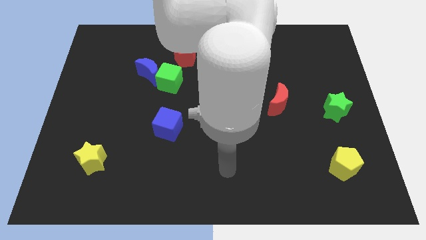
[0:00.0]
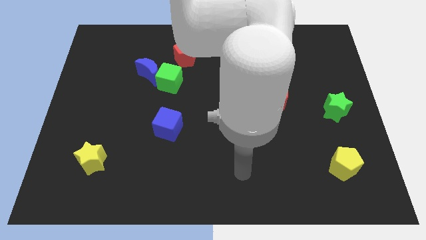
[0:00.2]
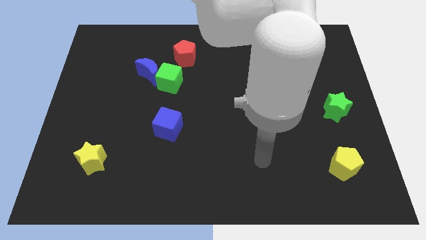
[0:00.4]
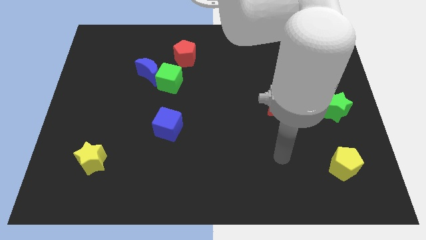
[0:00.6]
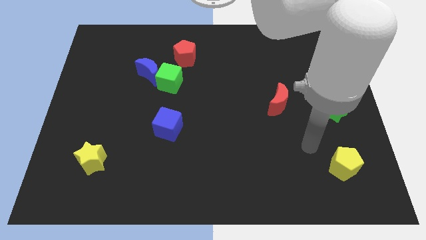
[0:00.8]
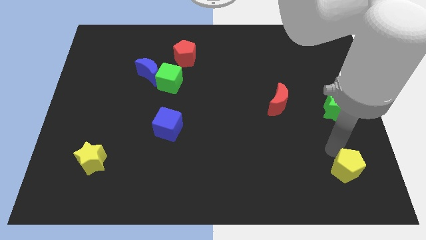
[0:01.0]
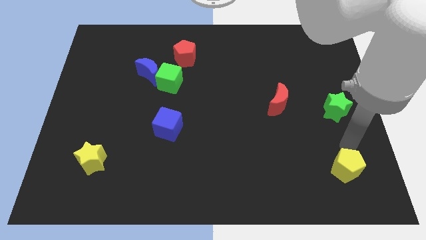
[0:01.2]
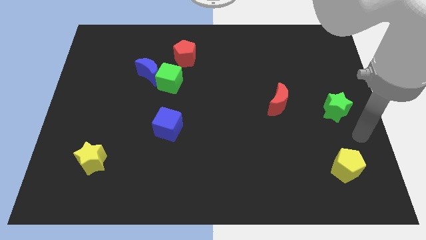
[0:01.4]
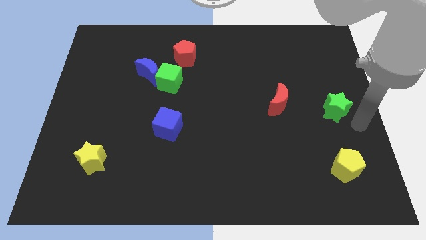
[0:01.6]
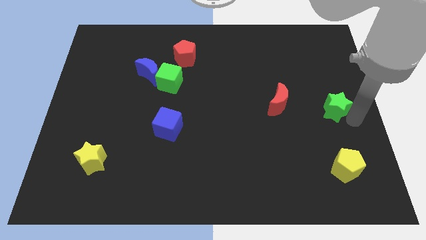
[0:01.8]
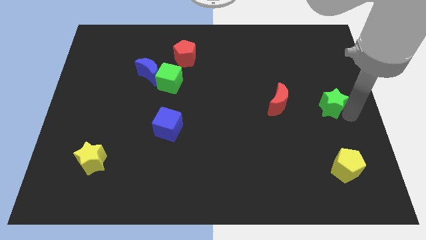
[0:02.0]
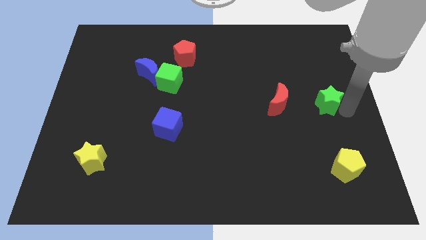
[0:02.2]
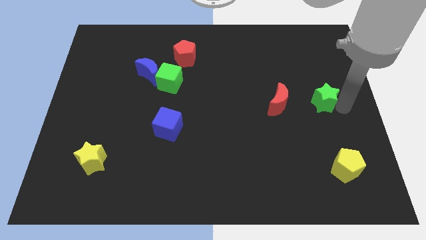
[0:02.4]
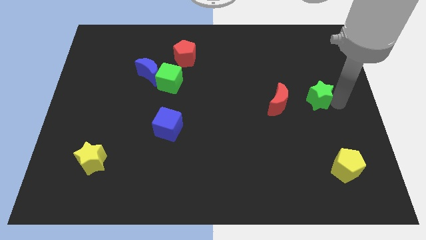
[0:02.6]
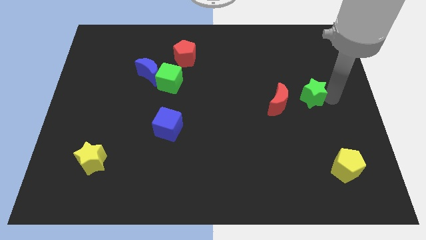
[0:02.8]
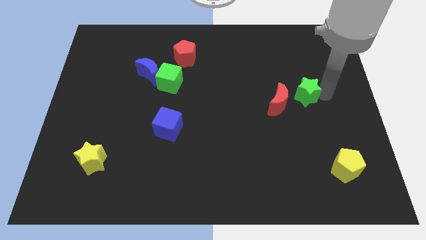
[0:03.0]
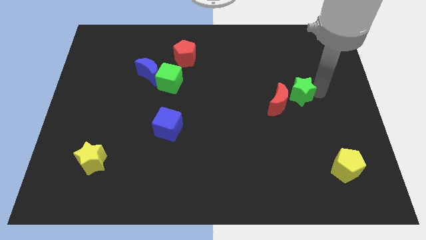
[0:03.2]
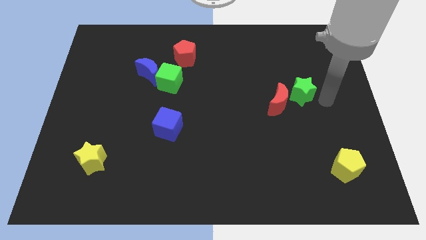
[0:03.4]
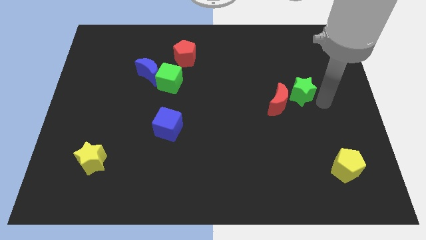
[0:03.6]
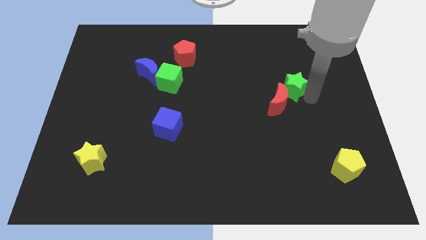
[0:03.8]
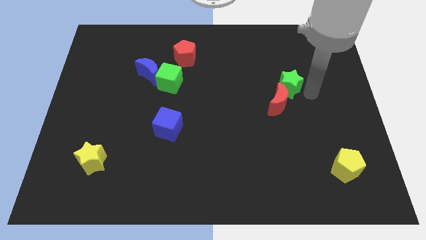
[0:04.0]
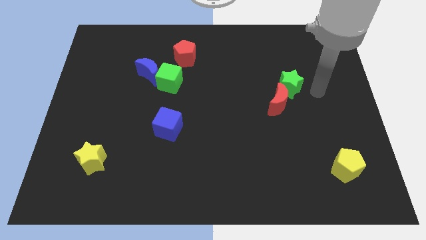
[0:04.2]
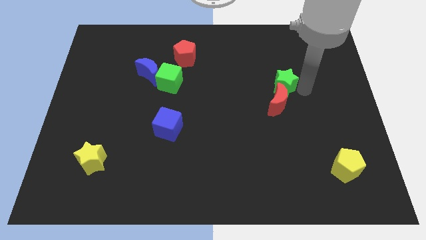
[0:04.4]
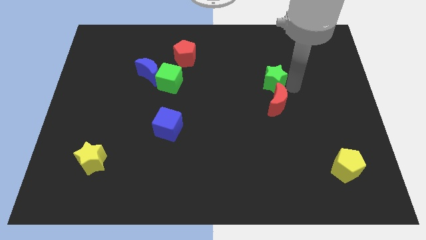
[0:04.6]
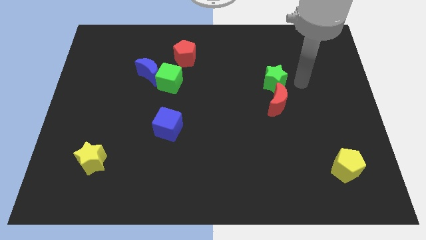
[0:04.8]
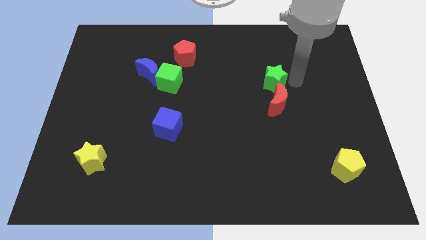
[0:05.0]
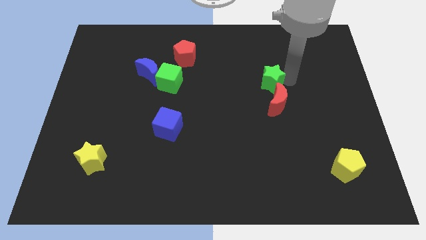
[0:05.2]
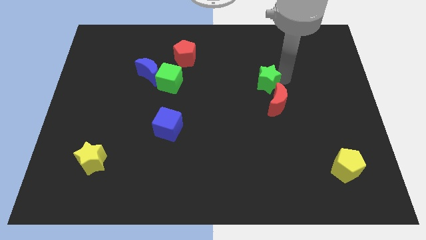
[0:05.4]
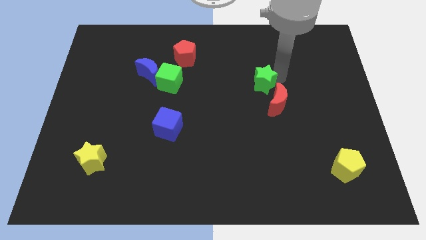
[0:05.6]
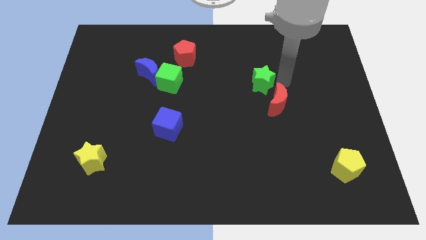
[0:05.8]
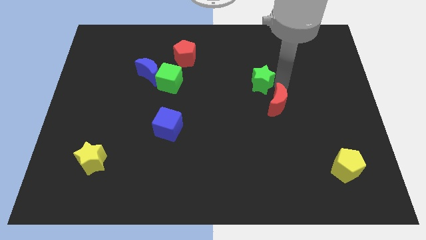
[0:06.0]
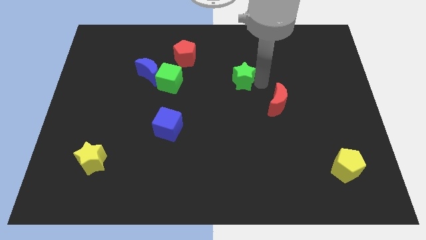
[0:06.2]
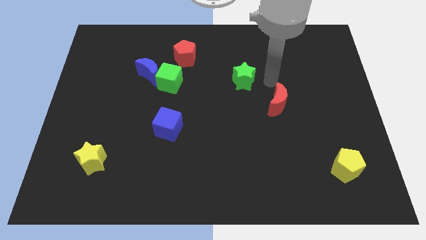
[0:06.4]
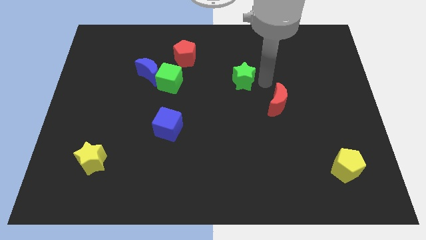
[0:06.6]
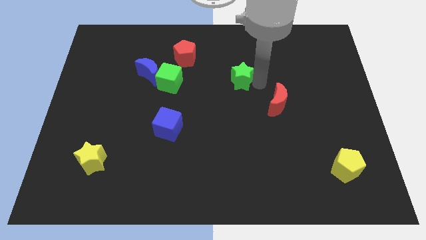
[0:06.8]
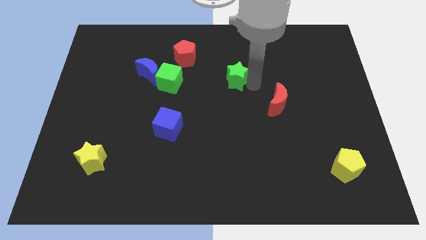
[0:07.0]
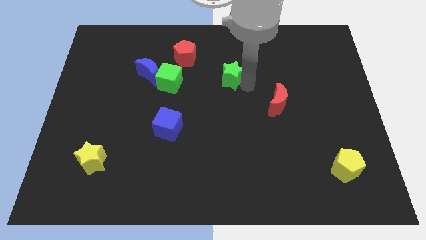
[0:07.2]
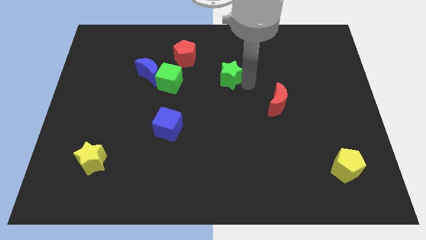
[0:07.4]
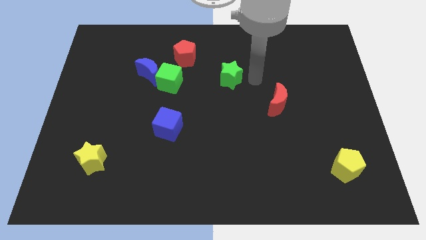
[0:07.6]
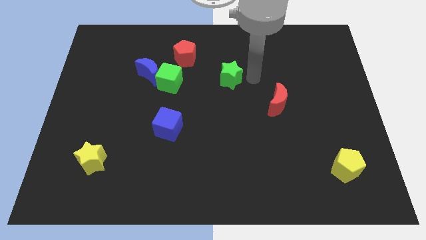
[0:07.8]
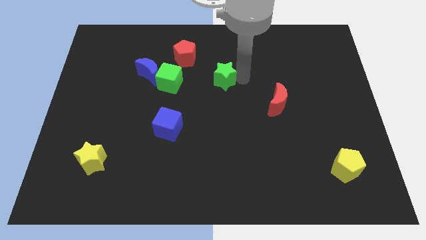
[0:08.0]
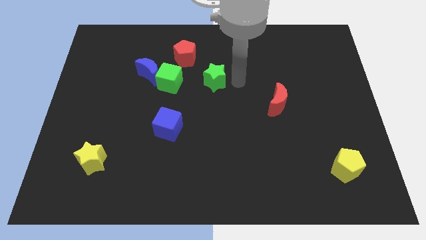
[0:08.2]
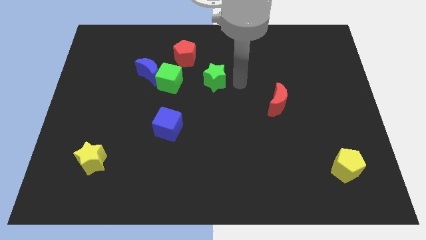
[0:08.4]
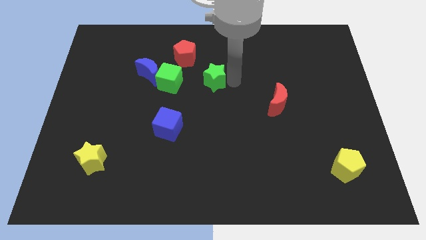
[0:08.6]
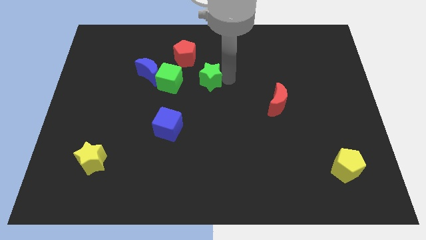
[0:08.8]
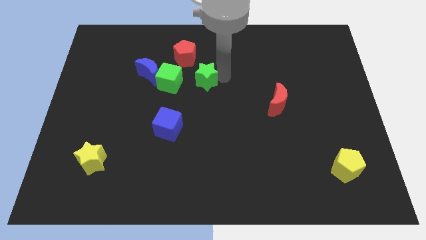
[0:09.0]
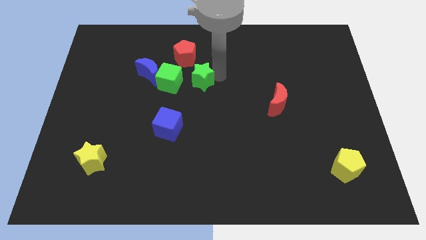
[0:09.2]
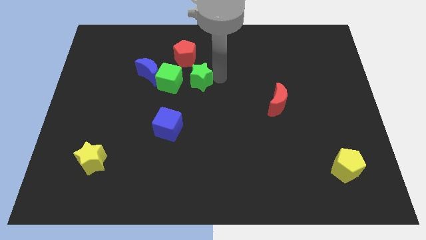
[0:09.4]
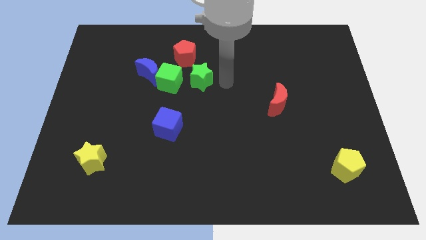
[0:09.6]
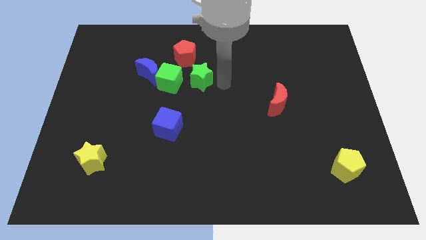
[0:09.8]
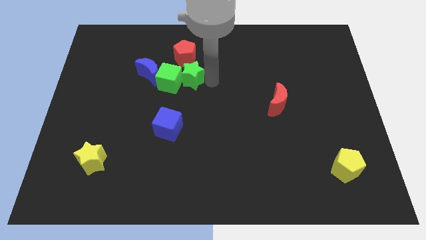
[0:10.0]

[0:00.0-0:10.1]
slide the green star next to the green cube

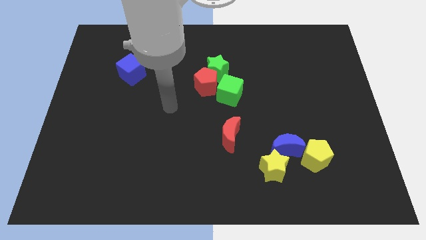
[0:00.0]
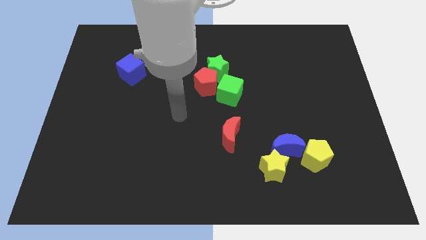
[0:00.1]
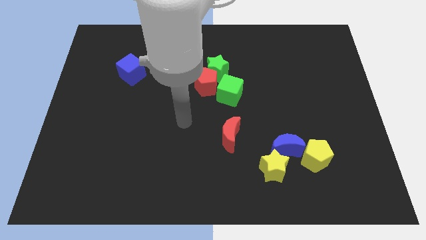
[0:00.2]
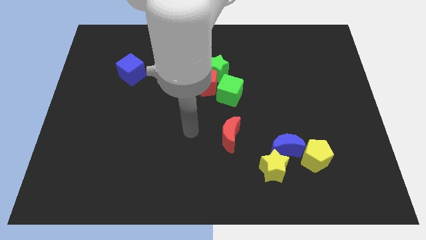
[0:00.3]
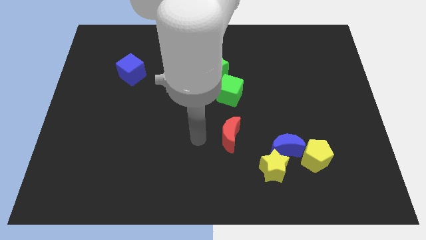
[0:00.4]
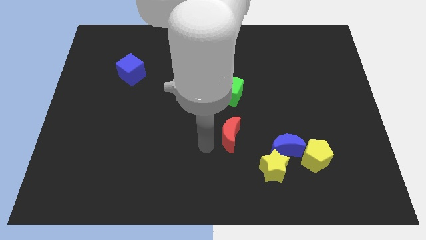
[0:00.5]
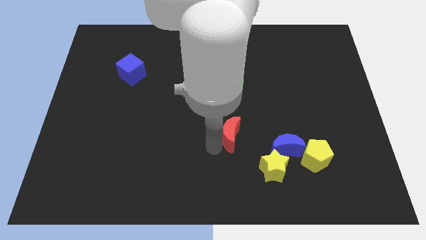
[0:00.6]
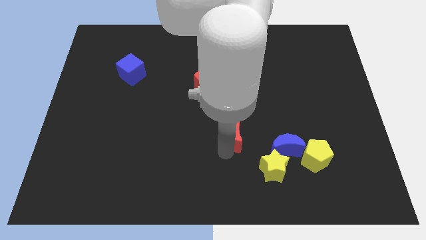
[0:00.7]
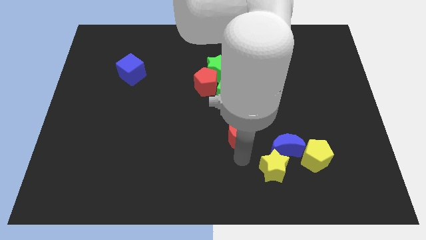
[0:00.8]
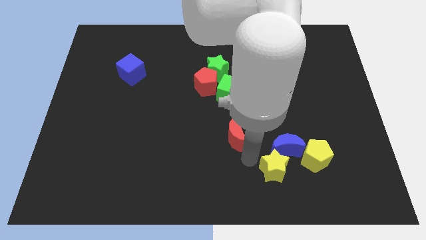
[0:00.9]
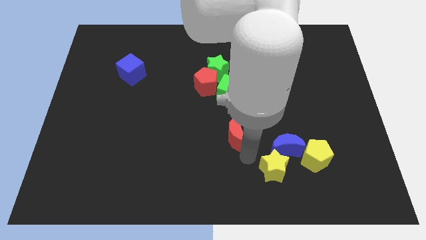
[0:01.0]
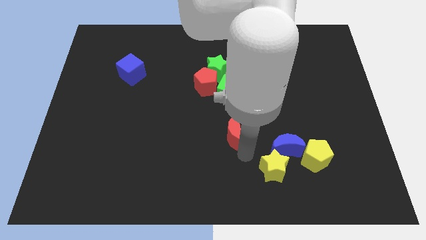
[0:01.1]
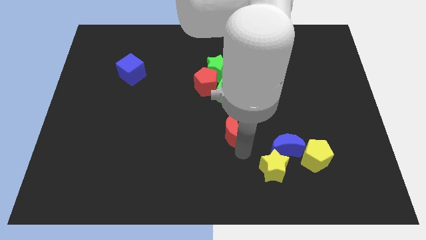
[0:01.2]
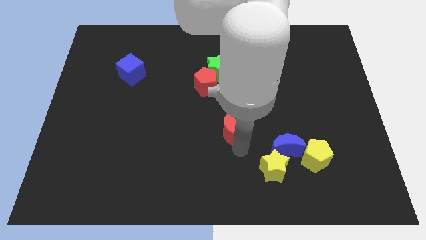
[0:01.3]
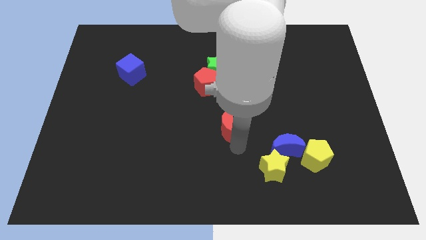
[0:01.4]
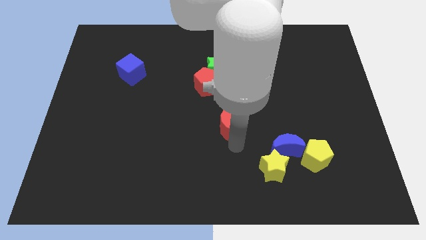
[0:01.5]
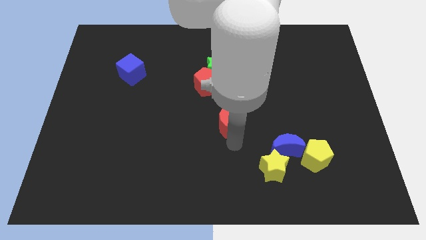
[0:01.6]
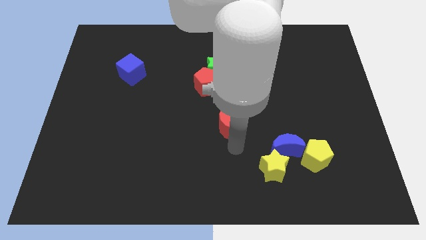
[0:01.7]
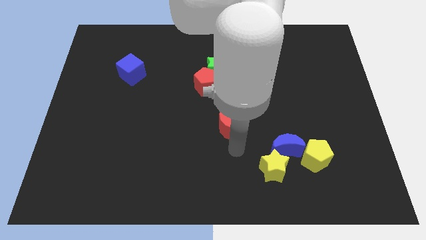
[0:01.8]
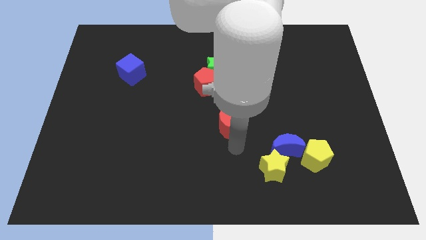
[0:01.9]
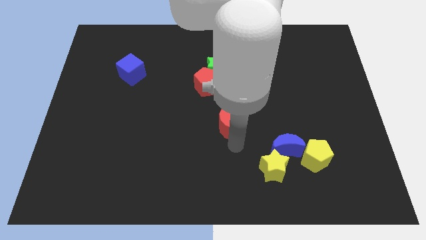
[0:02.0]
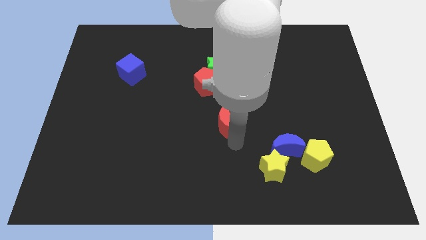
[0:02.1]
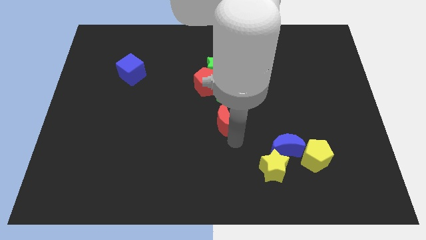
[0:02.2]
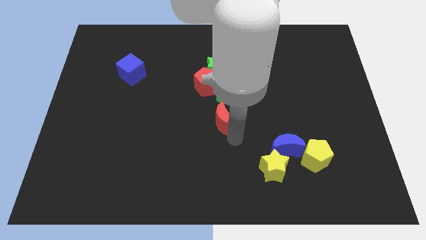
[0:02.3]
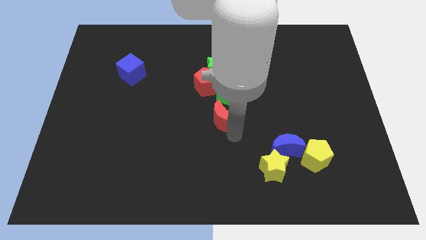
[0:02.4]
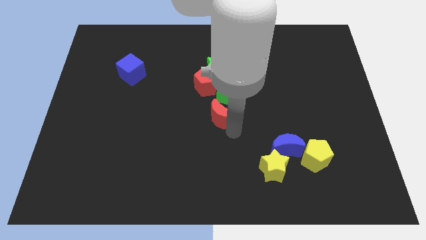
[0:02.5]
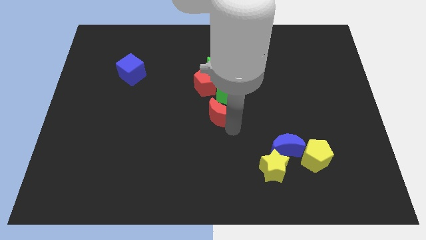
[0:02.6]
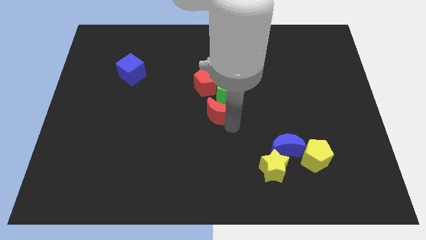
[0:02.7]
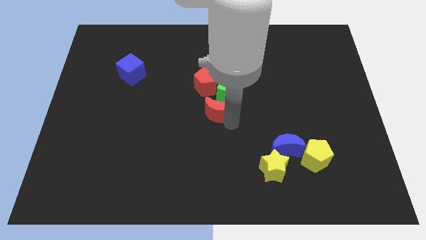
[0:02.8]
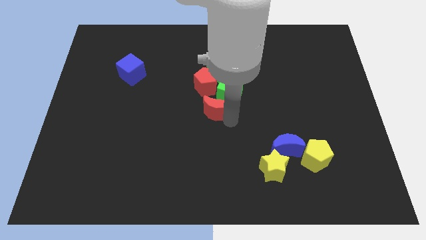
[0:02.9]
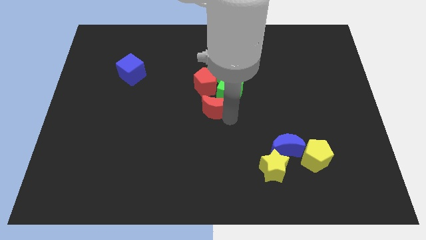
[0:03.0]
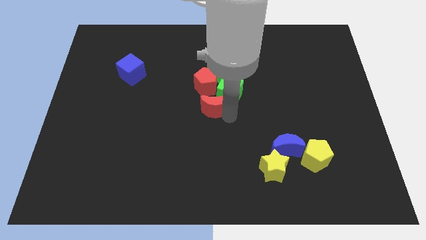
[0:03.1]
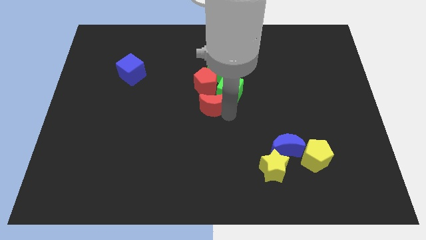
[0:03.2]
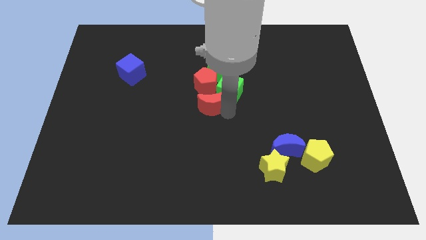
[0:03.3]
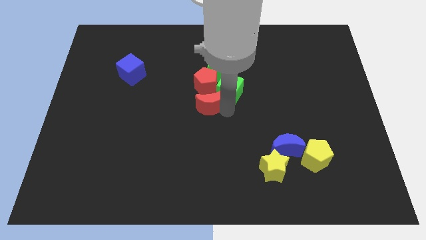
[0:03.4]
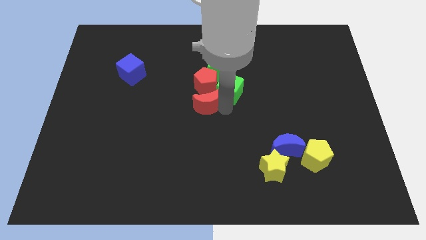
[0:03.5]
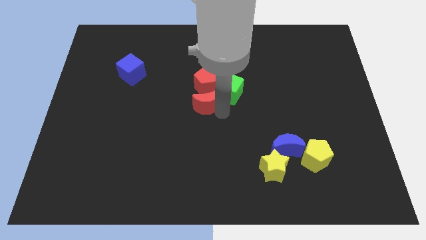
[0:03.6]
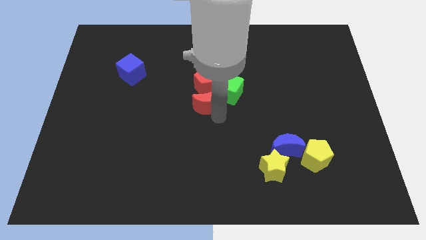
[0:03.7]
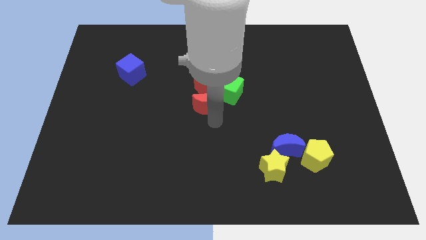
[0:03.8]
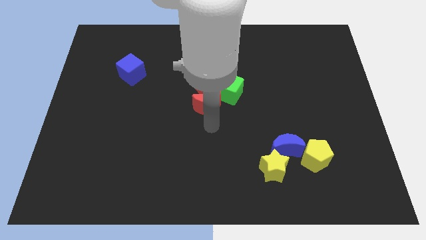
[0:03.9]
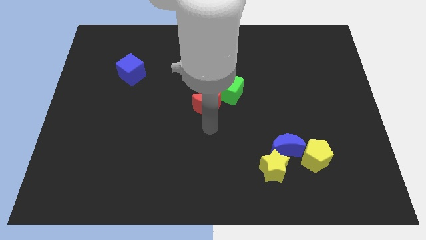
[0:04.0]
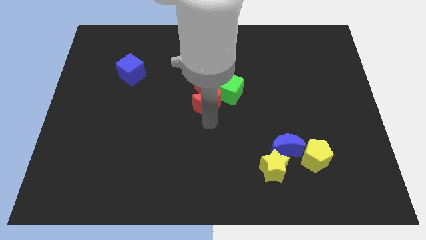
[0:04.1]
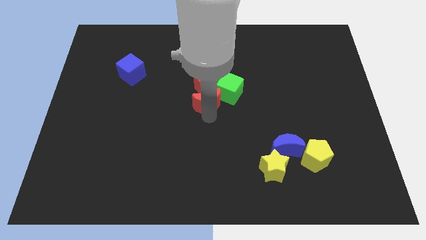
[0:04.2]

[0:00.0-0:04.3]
put the red moon to the red pentagon
